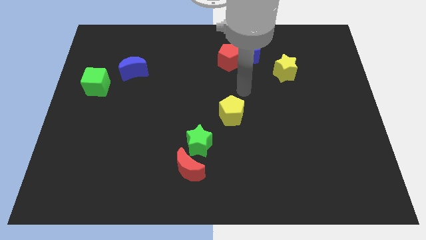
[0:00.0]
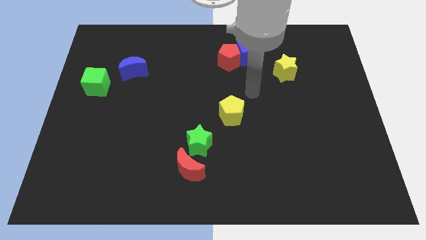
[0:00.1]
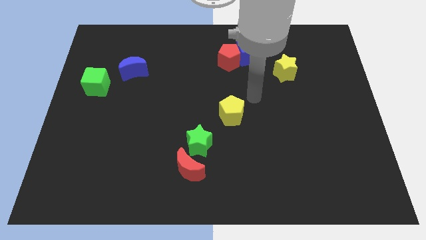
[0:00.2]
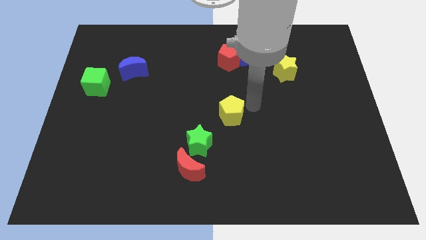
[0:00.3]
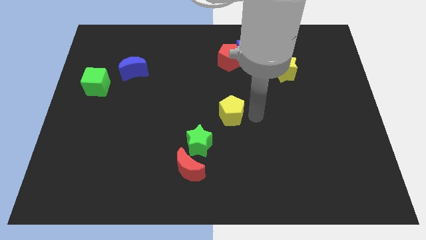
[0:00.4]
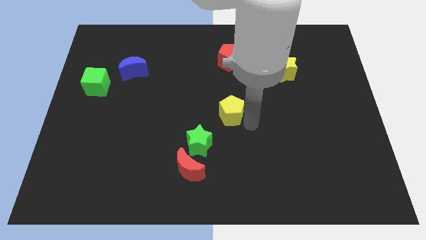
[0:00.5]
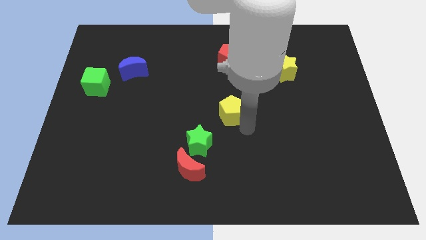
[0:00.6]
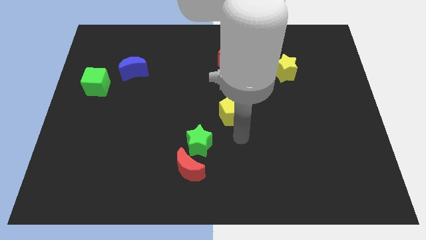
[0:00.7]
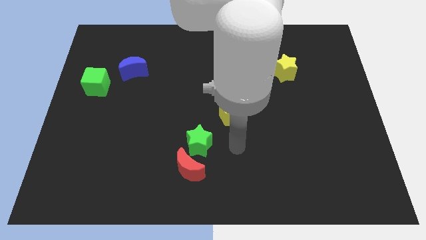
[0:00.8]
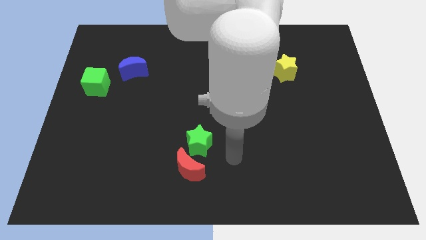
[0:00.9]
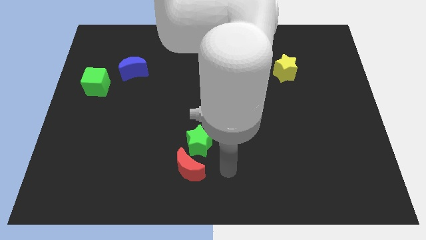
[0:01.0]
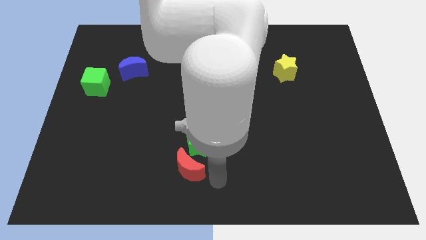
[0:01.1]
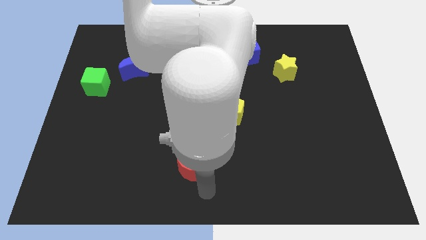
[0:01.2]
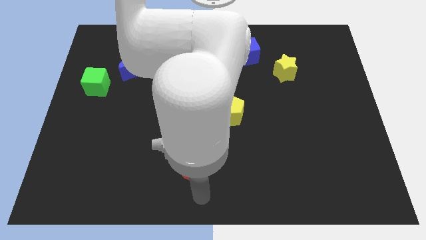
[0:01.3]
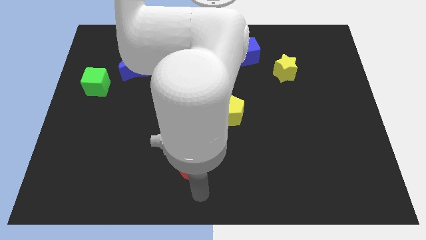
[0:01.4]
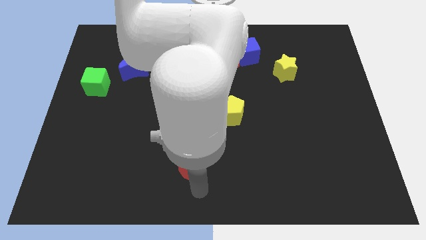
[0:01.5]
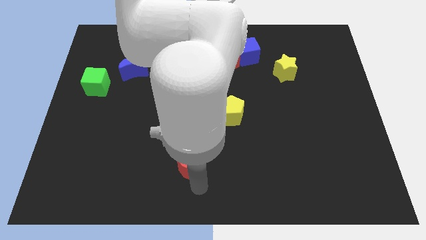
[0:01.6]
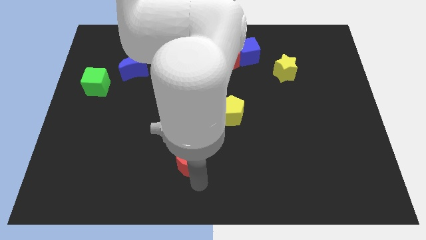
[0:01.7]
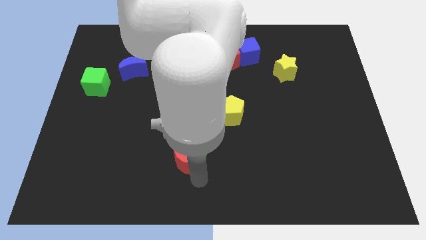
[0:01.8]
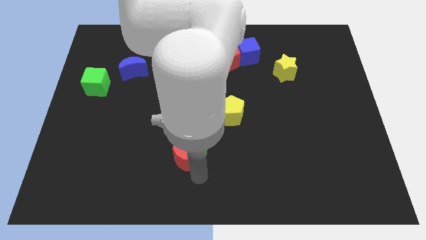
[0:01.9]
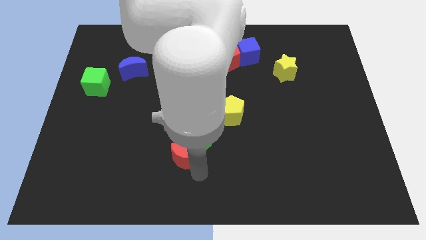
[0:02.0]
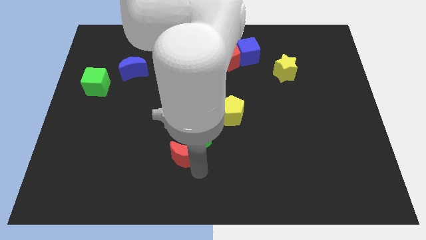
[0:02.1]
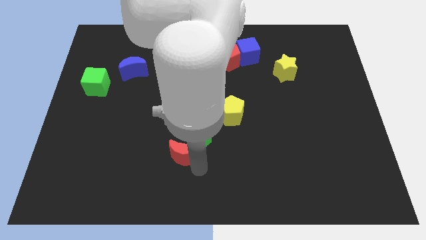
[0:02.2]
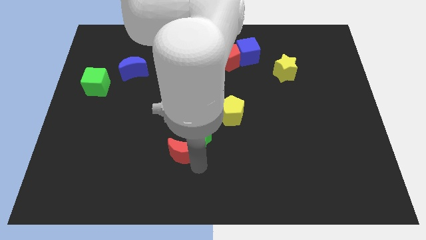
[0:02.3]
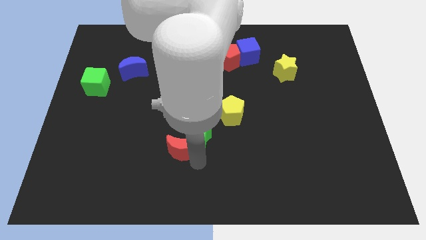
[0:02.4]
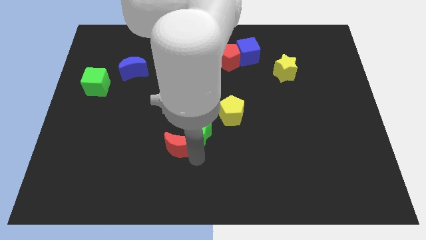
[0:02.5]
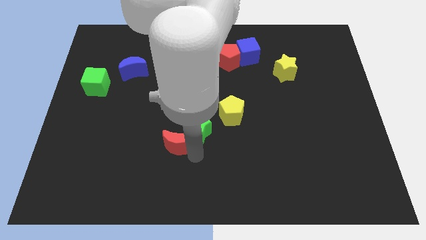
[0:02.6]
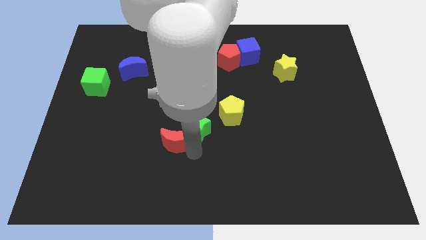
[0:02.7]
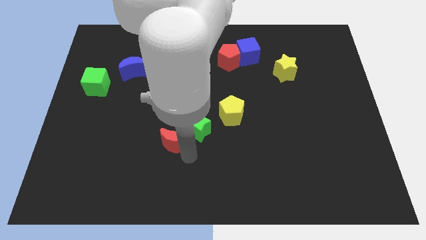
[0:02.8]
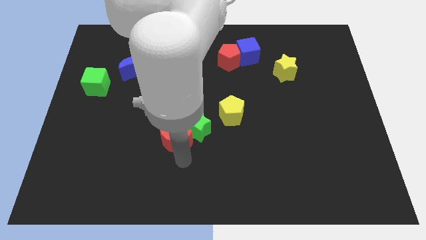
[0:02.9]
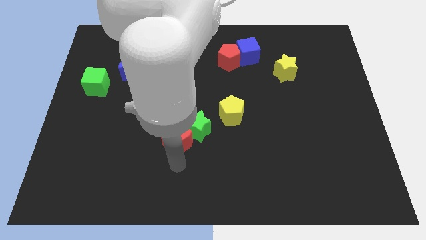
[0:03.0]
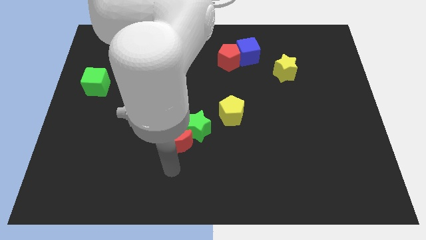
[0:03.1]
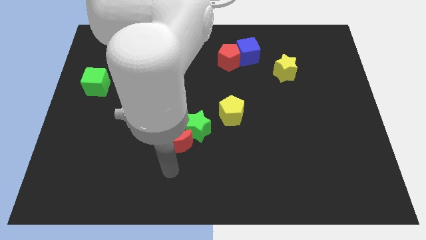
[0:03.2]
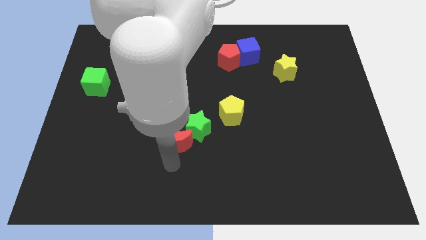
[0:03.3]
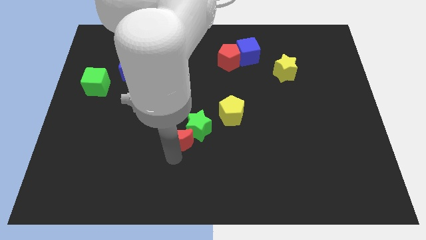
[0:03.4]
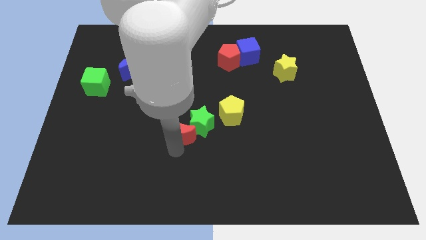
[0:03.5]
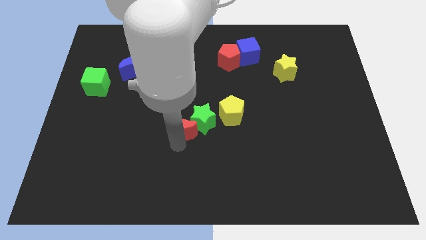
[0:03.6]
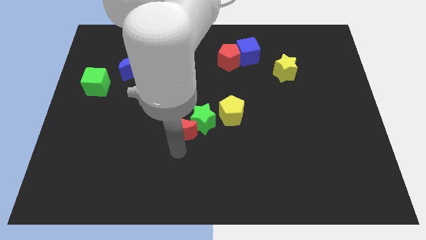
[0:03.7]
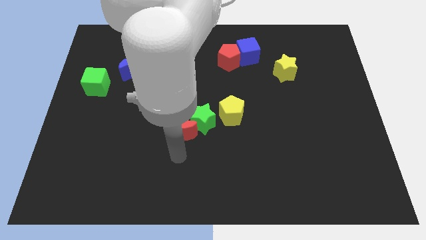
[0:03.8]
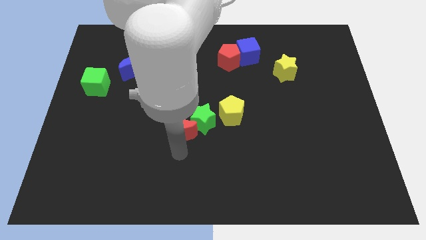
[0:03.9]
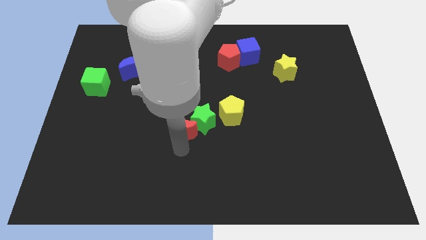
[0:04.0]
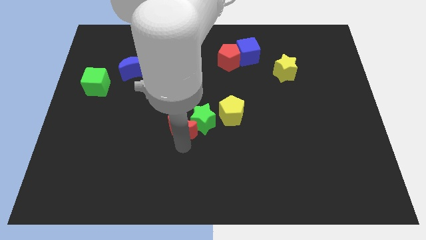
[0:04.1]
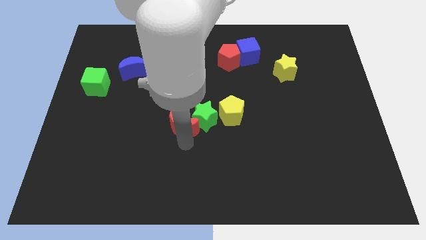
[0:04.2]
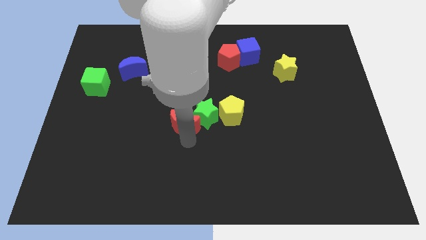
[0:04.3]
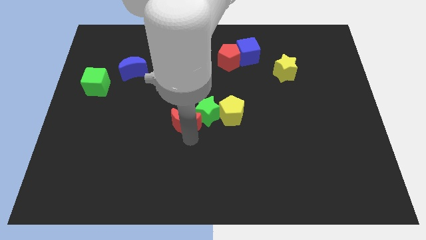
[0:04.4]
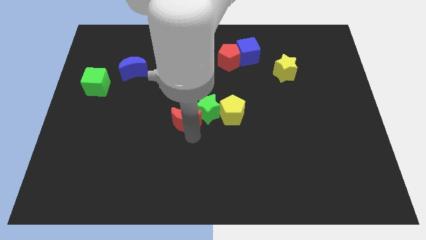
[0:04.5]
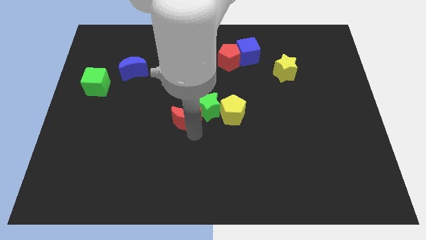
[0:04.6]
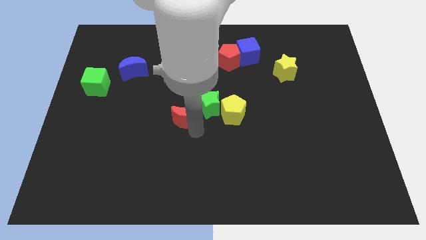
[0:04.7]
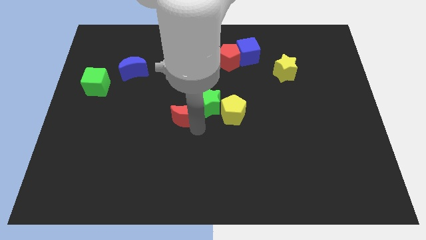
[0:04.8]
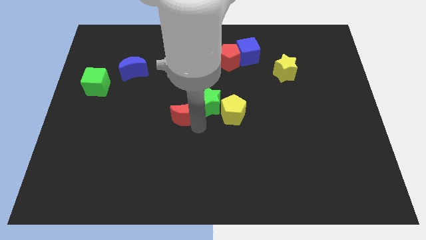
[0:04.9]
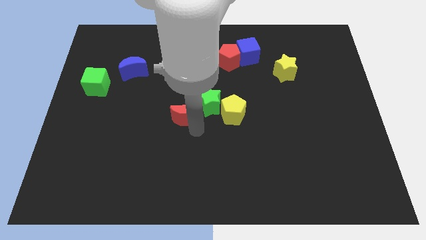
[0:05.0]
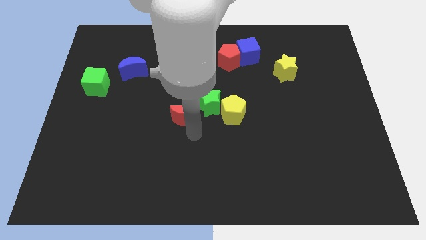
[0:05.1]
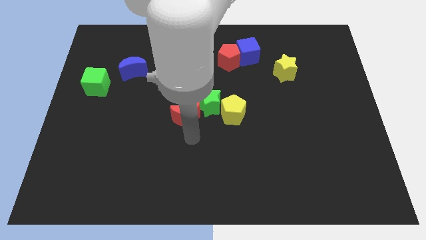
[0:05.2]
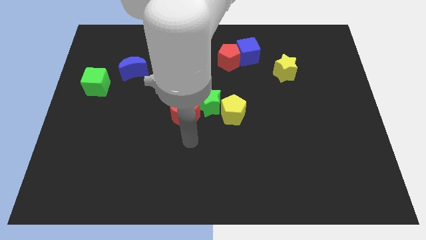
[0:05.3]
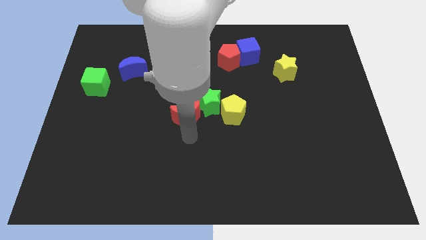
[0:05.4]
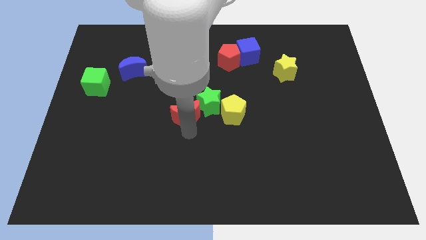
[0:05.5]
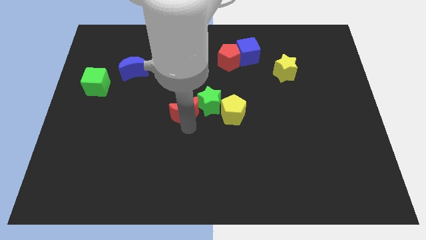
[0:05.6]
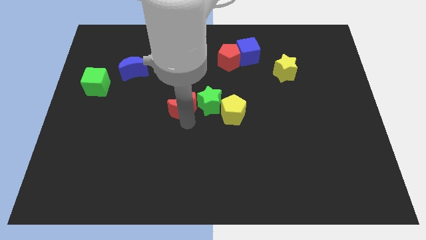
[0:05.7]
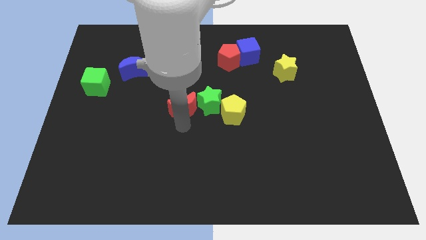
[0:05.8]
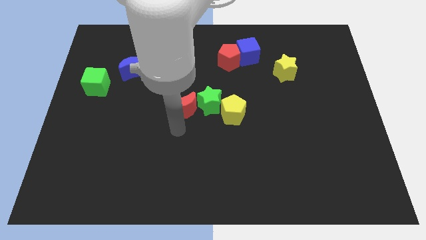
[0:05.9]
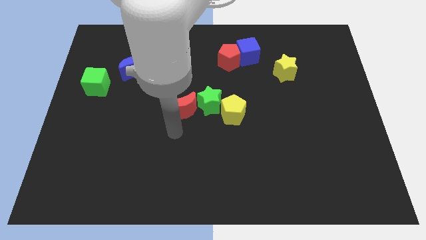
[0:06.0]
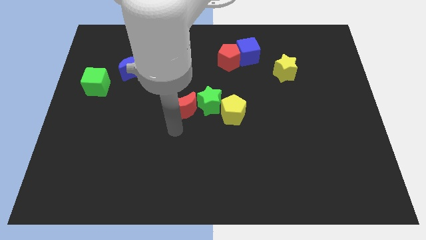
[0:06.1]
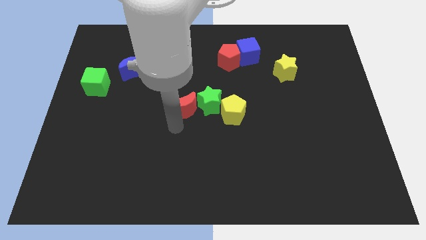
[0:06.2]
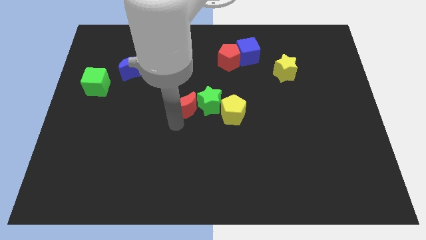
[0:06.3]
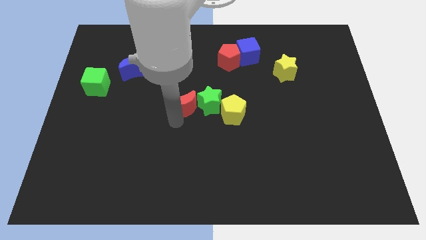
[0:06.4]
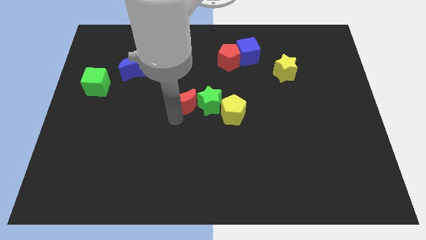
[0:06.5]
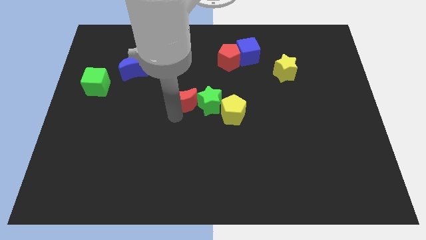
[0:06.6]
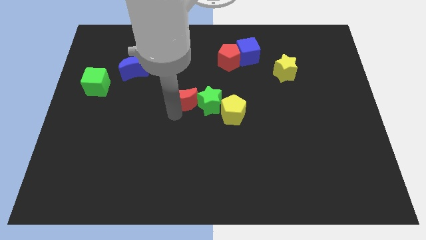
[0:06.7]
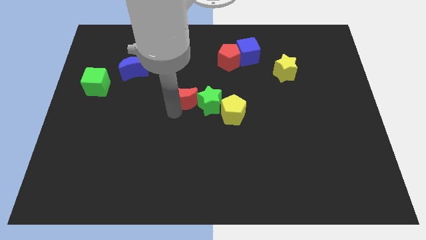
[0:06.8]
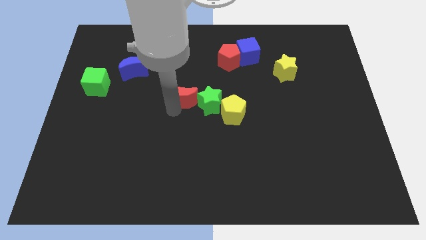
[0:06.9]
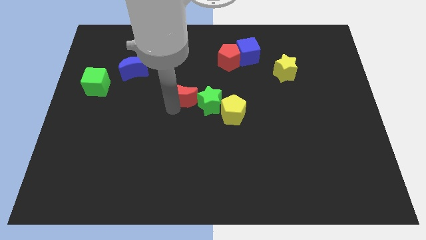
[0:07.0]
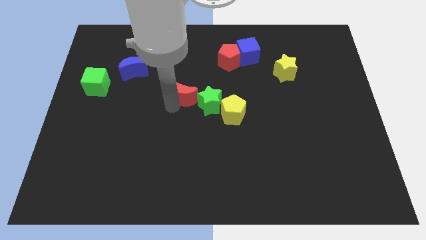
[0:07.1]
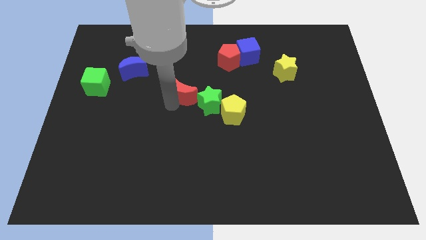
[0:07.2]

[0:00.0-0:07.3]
move the red moon upwards

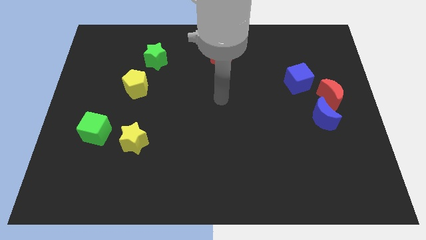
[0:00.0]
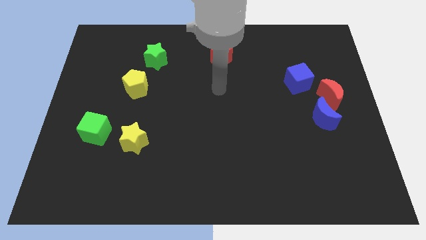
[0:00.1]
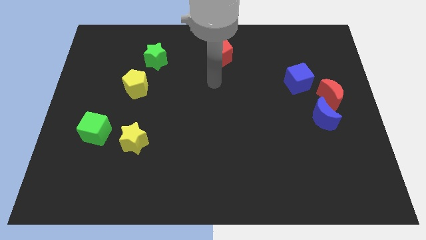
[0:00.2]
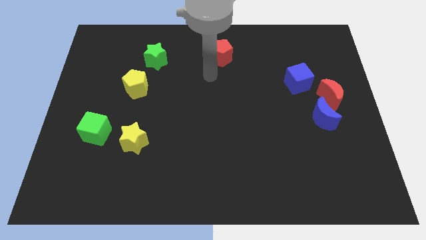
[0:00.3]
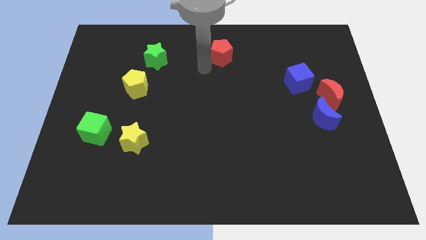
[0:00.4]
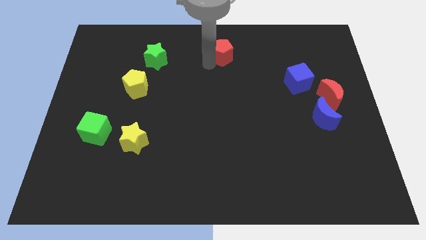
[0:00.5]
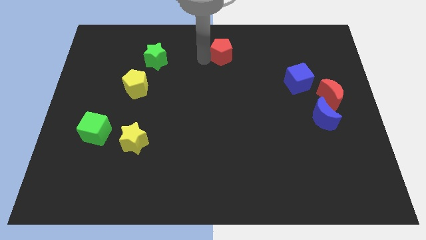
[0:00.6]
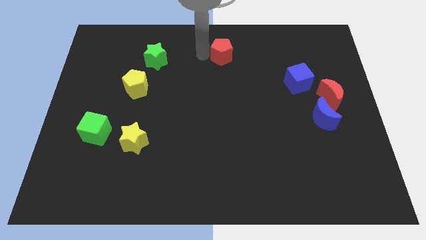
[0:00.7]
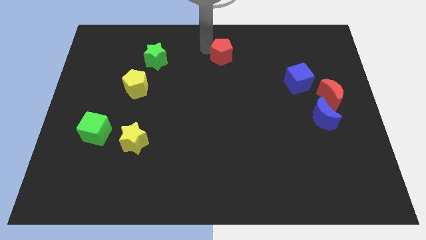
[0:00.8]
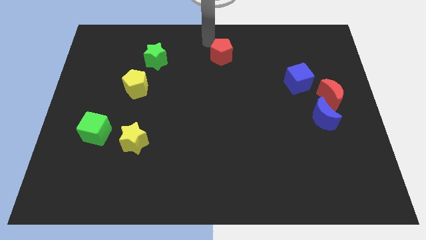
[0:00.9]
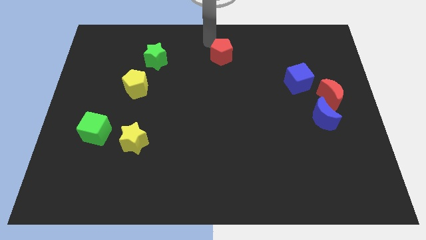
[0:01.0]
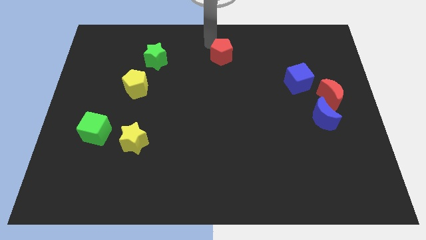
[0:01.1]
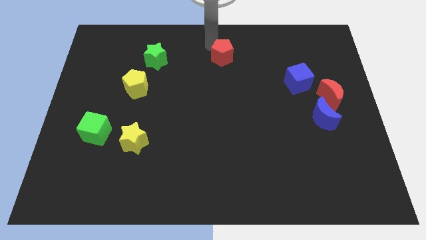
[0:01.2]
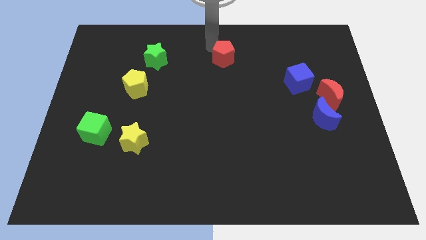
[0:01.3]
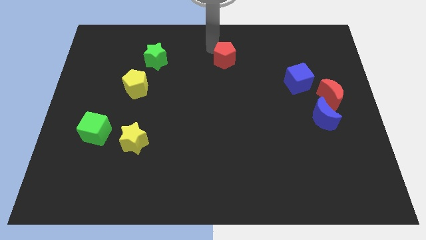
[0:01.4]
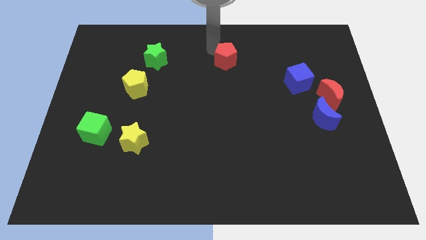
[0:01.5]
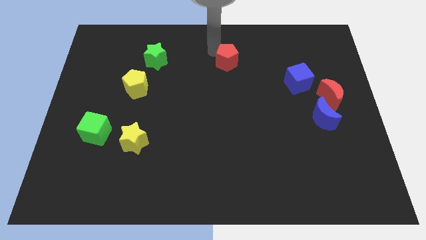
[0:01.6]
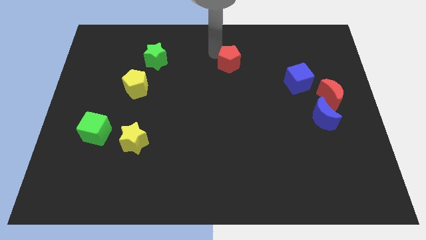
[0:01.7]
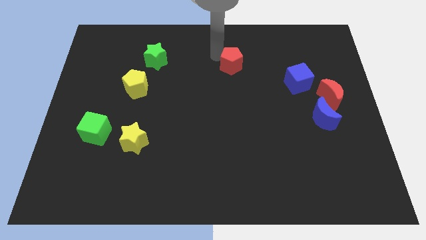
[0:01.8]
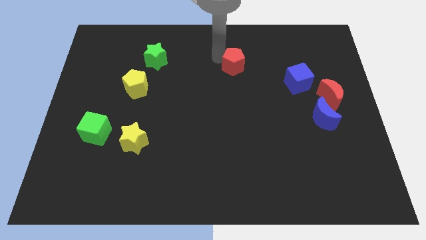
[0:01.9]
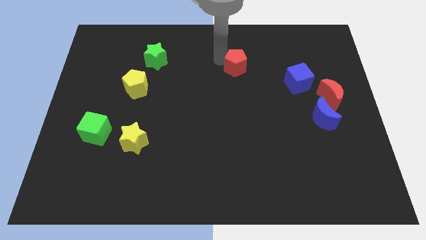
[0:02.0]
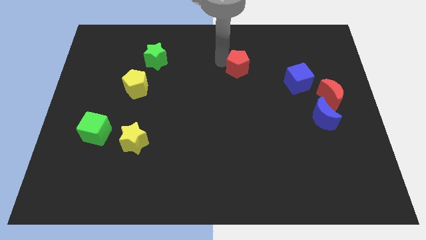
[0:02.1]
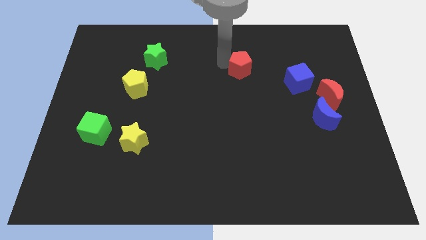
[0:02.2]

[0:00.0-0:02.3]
slightly push the red pentagon downwards and to the right
